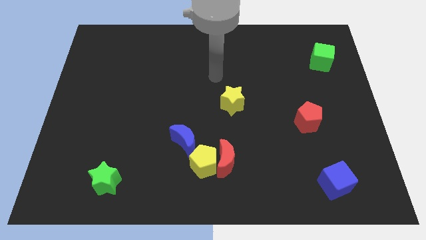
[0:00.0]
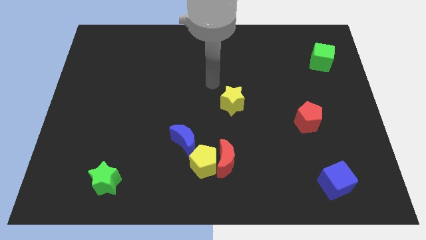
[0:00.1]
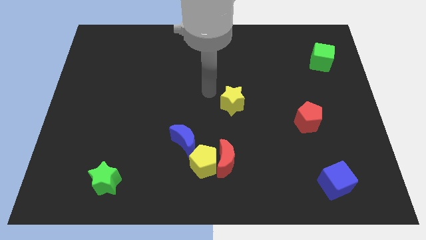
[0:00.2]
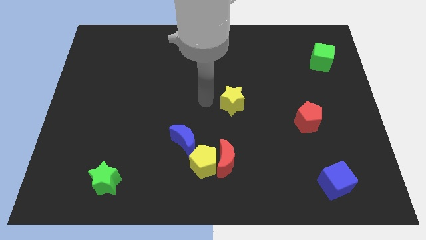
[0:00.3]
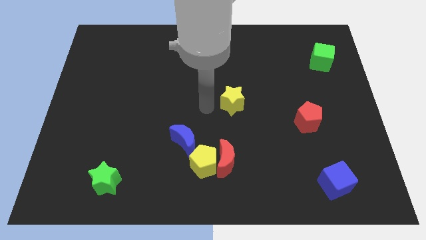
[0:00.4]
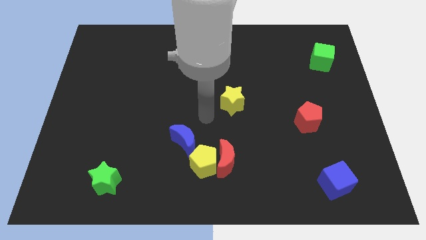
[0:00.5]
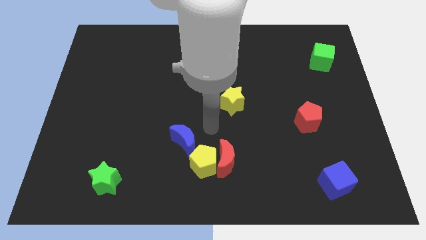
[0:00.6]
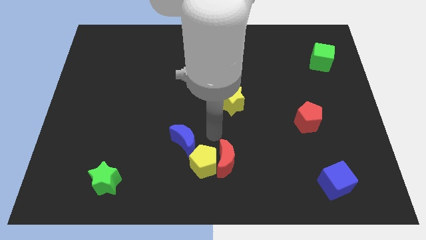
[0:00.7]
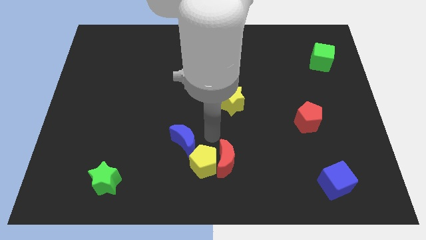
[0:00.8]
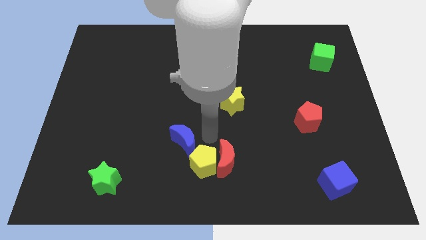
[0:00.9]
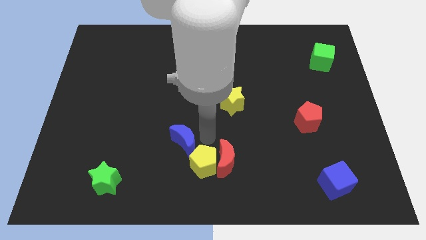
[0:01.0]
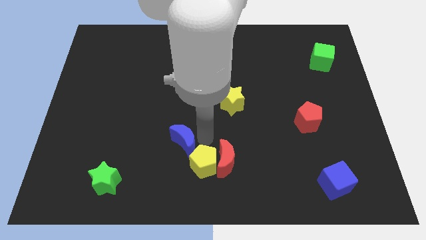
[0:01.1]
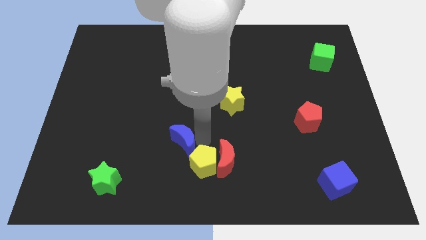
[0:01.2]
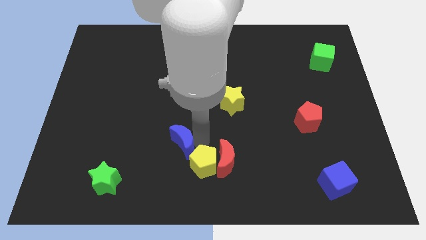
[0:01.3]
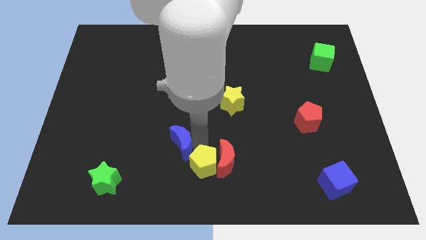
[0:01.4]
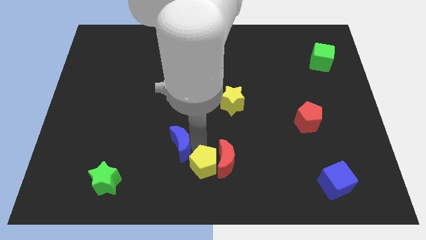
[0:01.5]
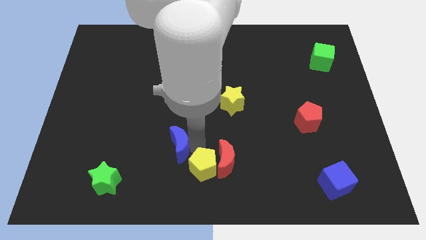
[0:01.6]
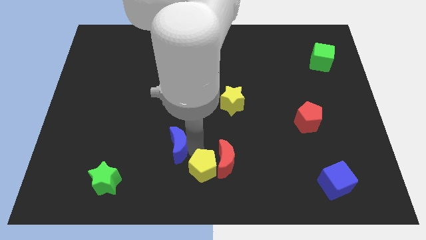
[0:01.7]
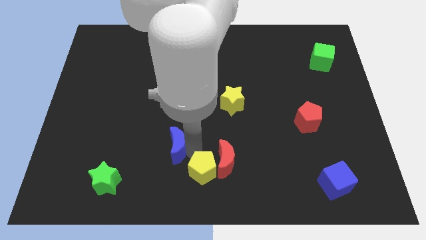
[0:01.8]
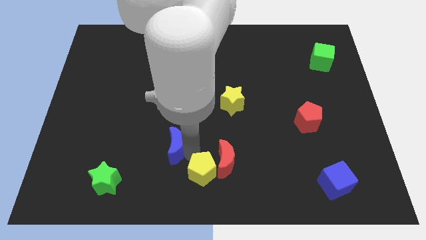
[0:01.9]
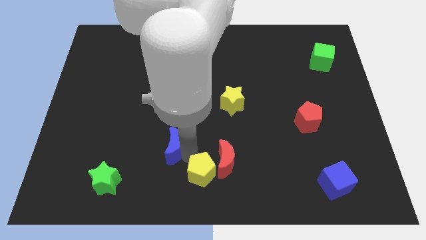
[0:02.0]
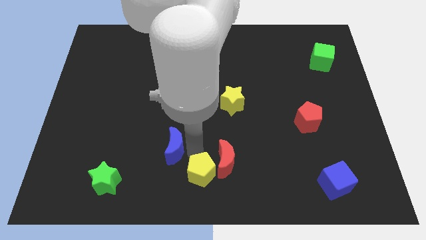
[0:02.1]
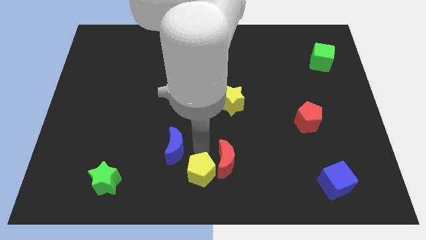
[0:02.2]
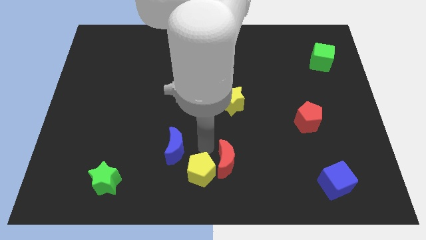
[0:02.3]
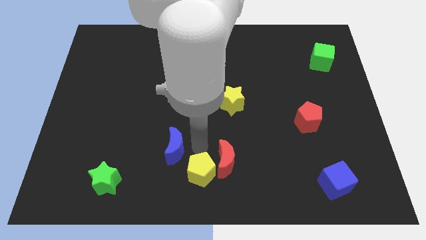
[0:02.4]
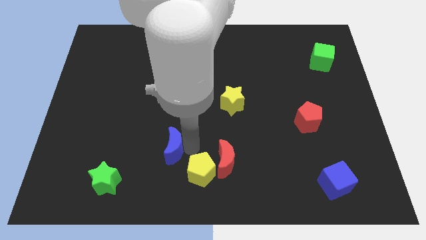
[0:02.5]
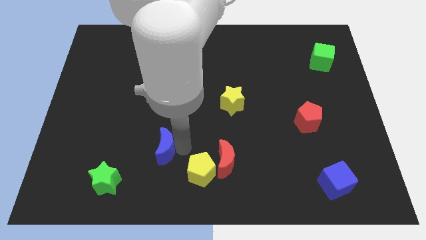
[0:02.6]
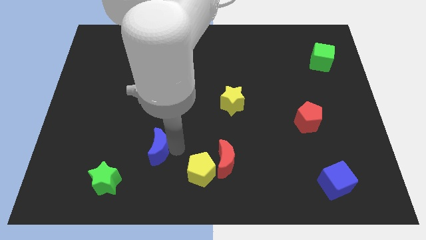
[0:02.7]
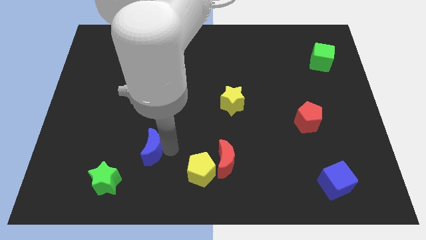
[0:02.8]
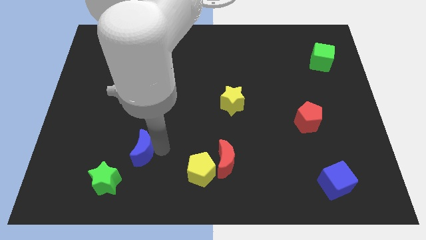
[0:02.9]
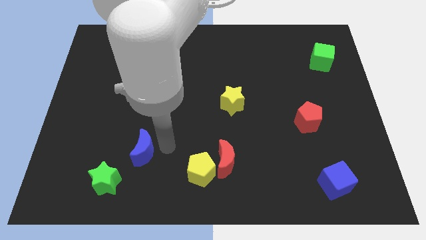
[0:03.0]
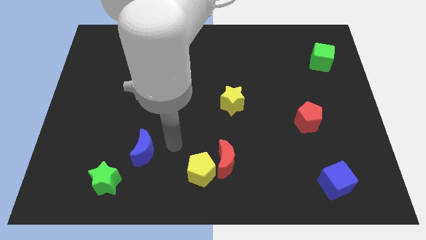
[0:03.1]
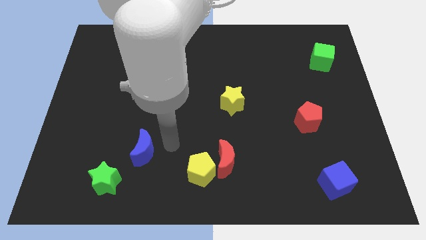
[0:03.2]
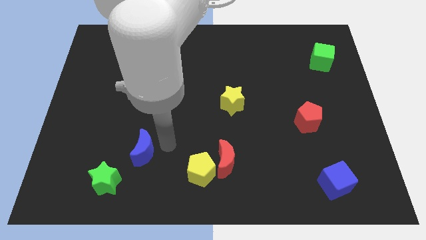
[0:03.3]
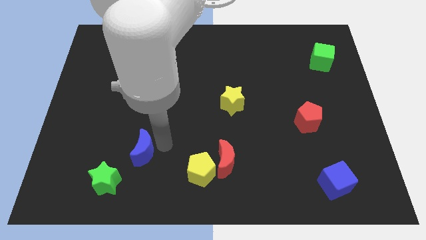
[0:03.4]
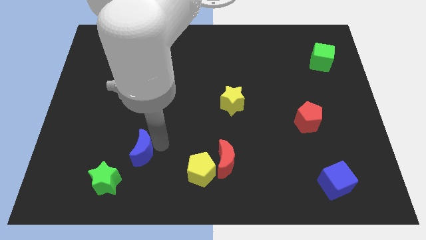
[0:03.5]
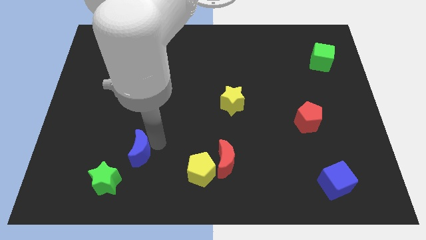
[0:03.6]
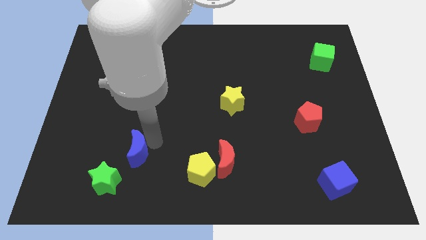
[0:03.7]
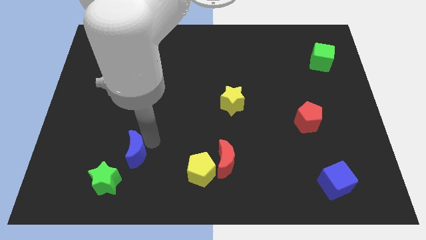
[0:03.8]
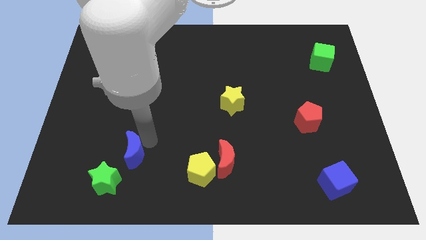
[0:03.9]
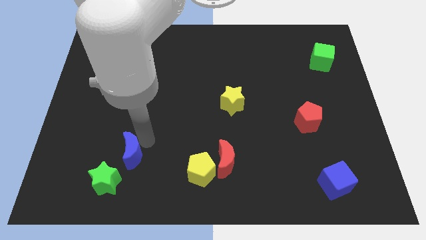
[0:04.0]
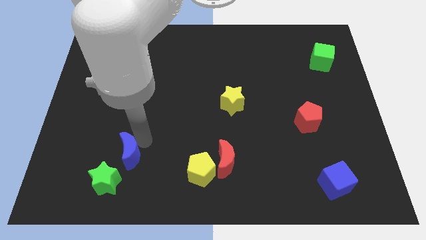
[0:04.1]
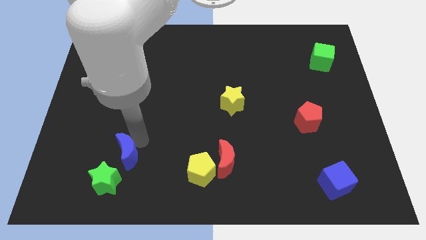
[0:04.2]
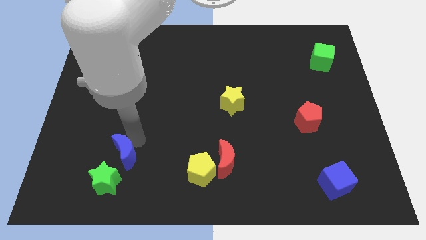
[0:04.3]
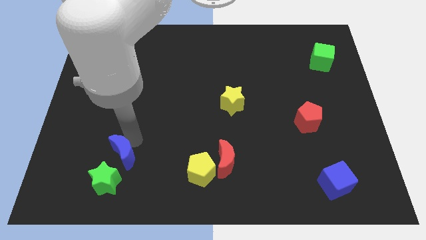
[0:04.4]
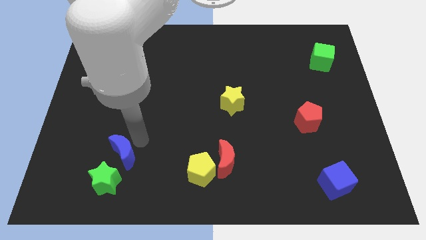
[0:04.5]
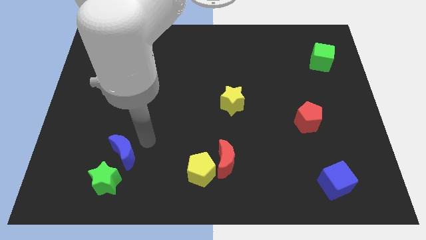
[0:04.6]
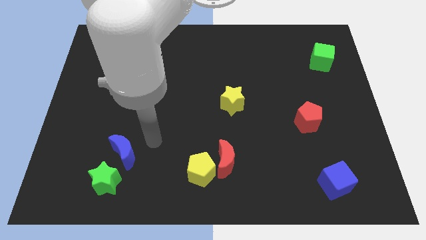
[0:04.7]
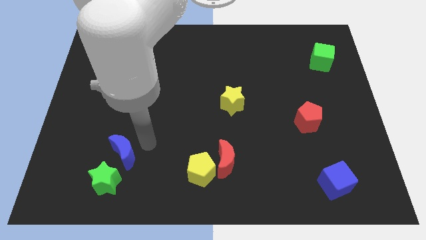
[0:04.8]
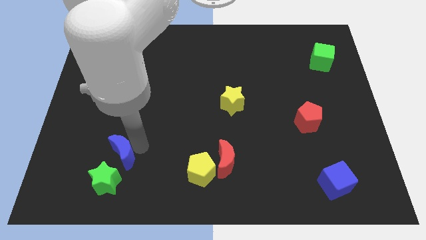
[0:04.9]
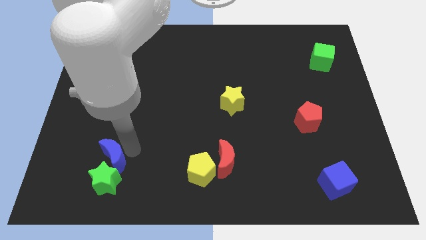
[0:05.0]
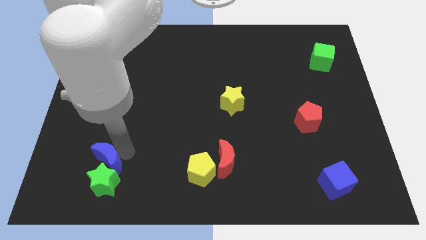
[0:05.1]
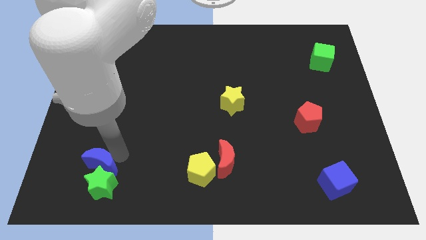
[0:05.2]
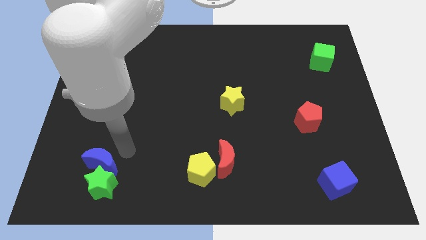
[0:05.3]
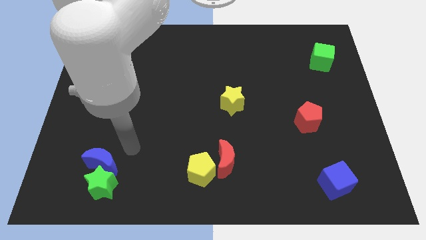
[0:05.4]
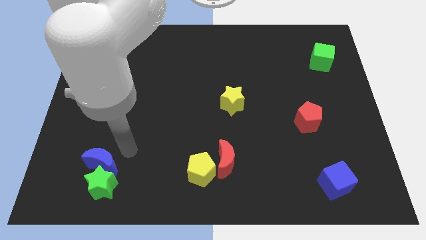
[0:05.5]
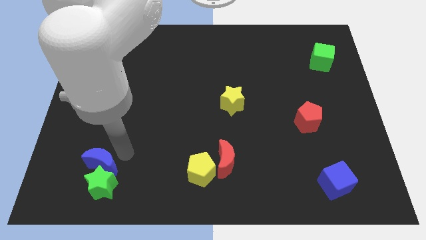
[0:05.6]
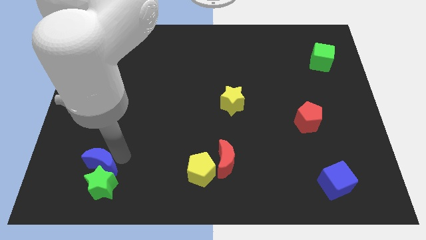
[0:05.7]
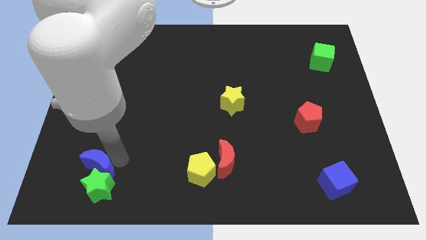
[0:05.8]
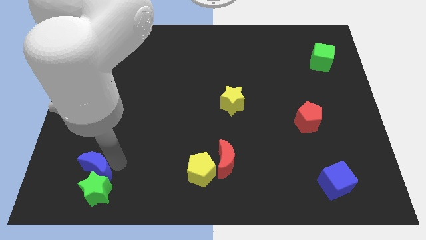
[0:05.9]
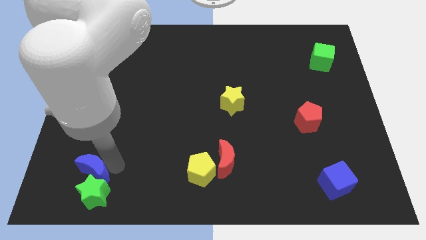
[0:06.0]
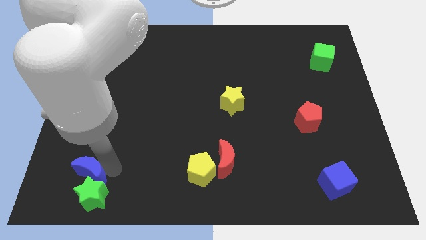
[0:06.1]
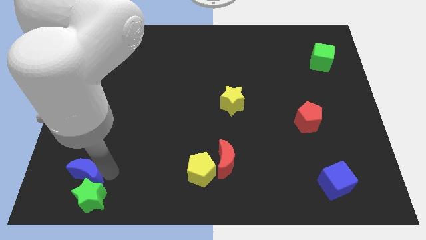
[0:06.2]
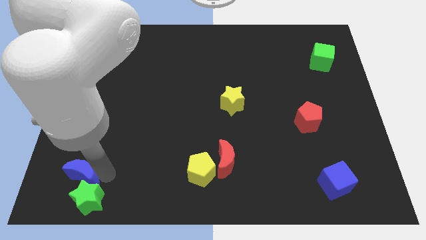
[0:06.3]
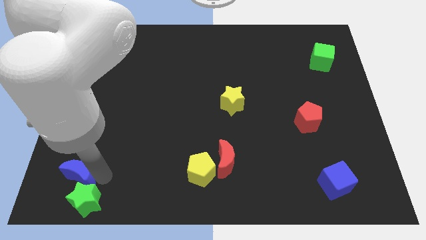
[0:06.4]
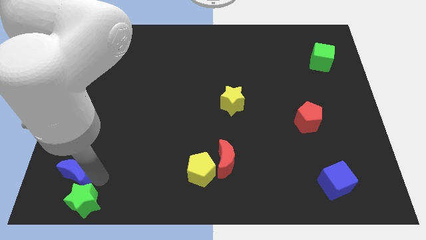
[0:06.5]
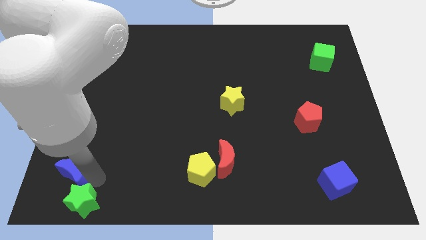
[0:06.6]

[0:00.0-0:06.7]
slide the blue moon to the bottom left corner
